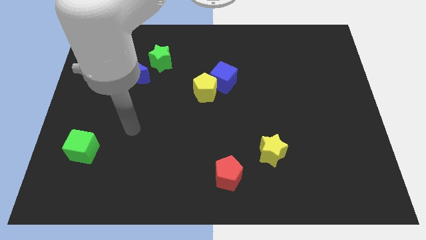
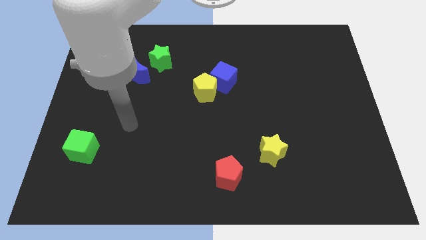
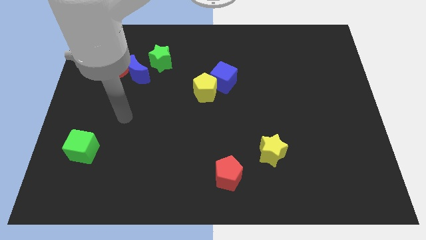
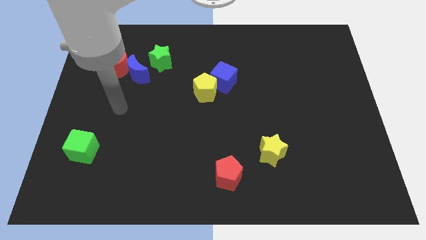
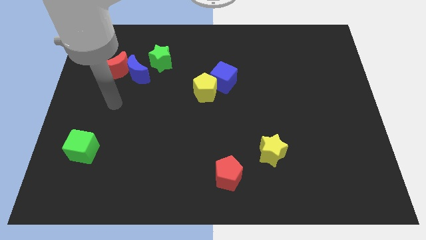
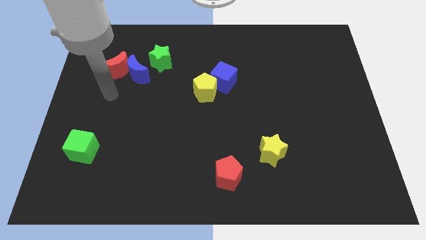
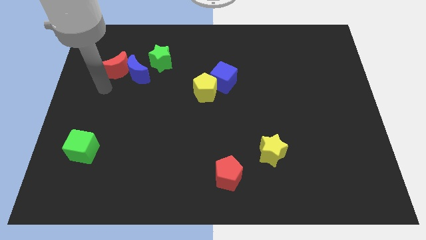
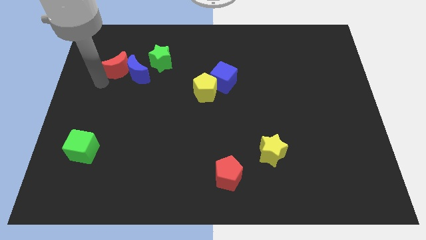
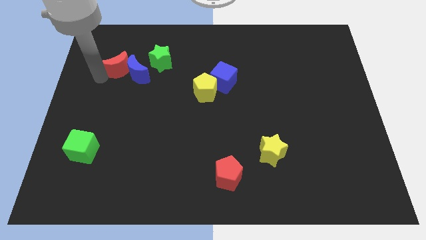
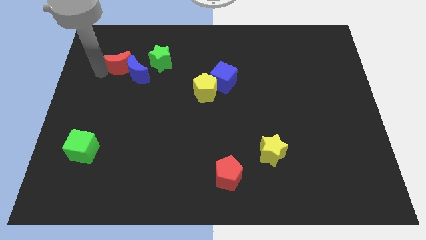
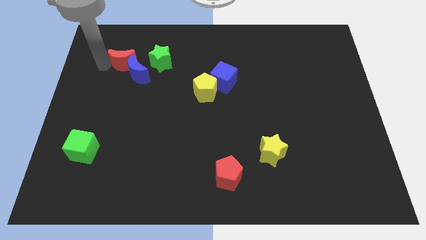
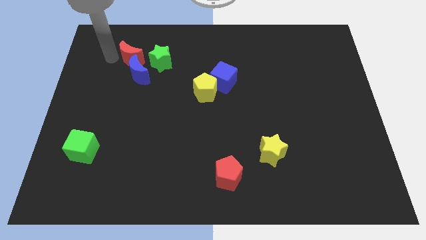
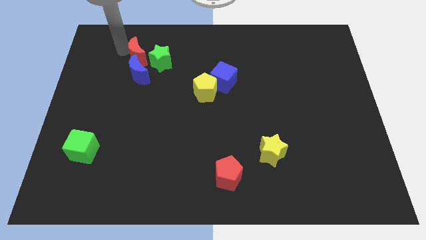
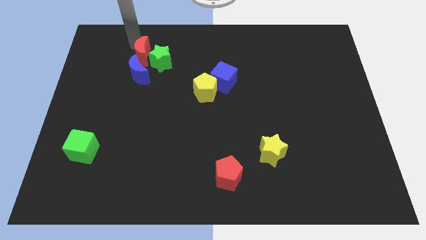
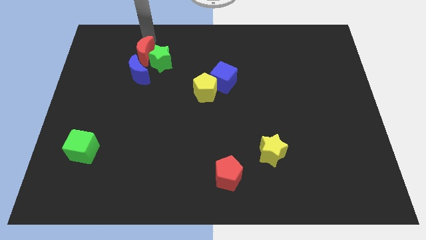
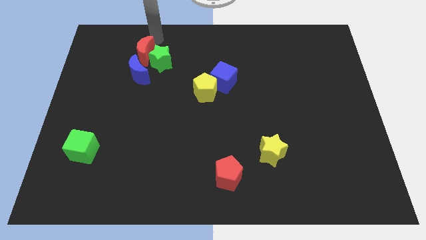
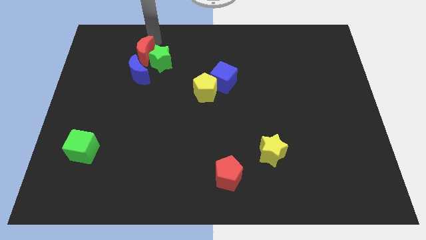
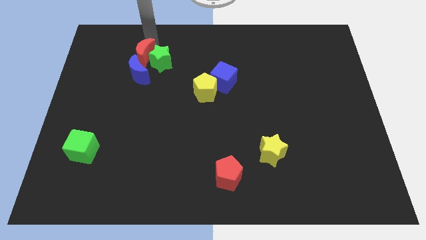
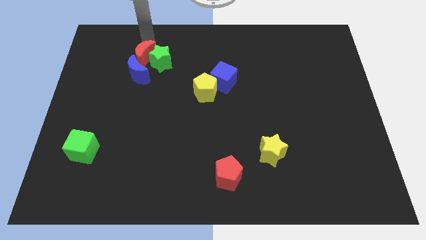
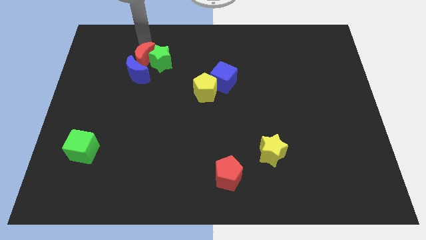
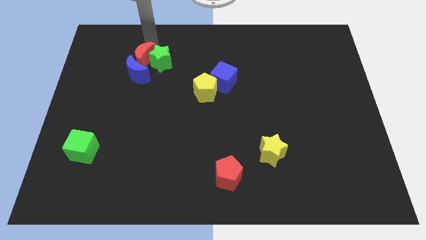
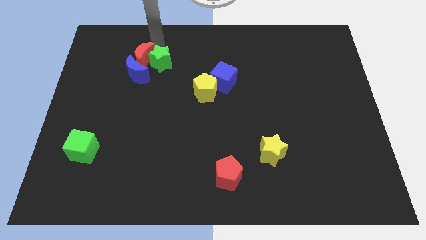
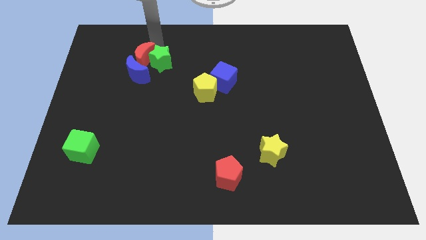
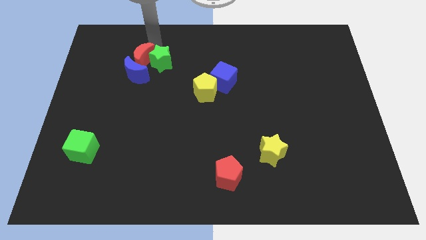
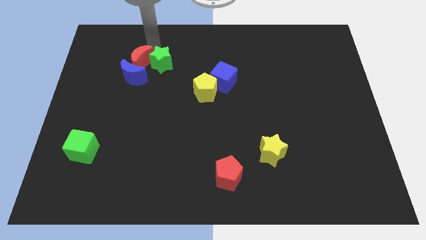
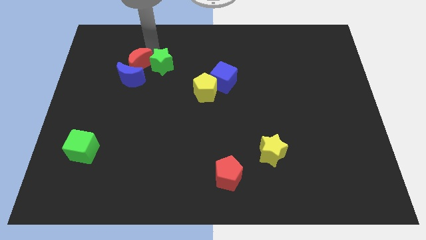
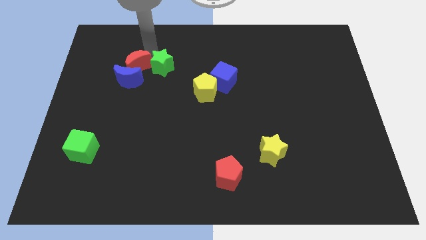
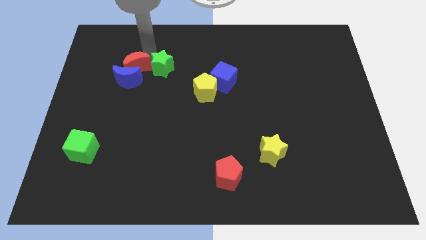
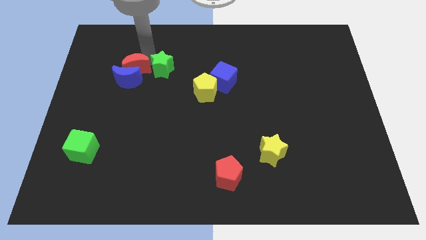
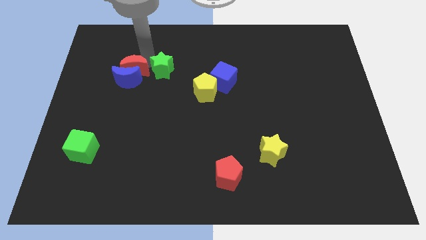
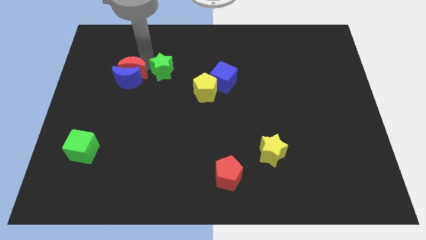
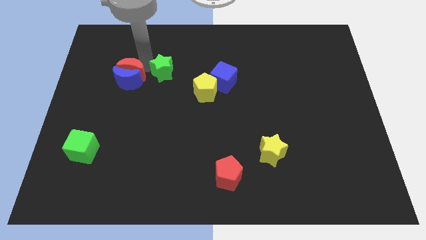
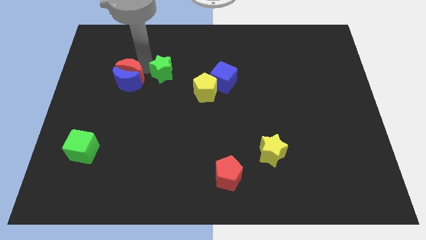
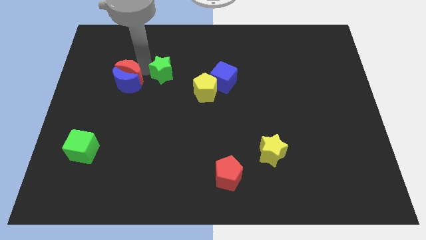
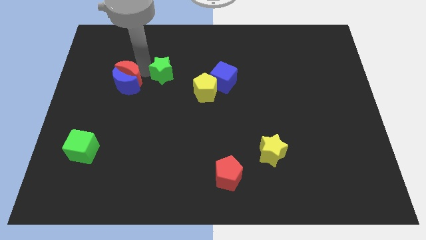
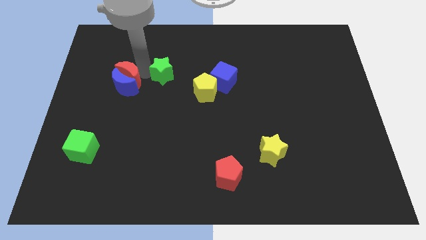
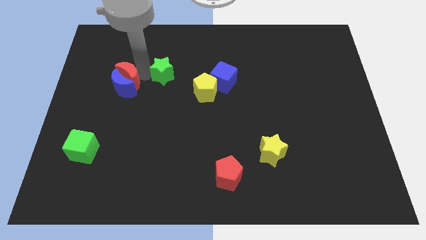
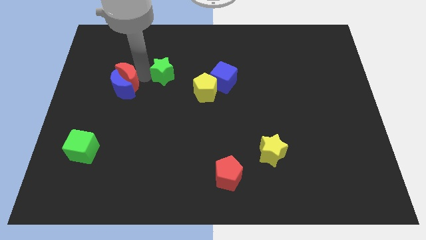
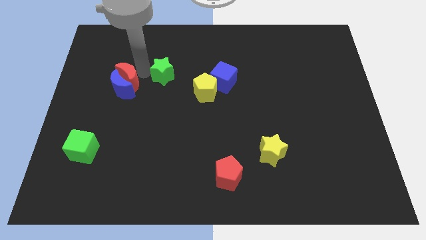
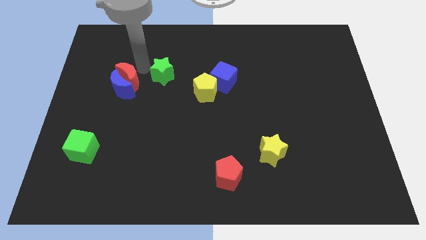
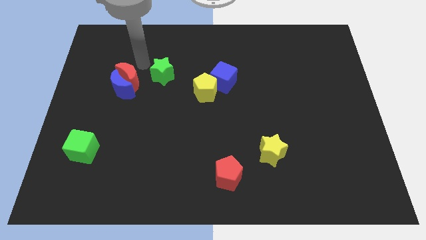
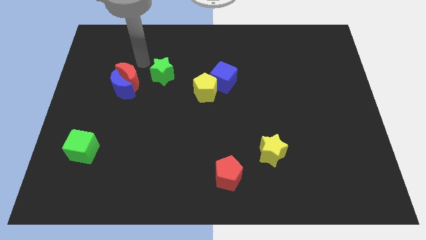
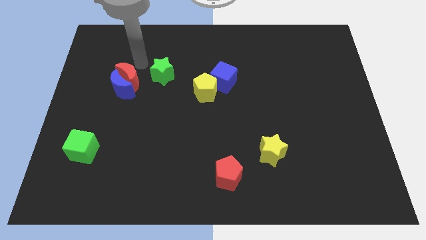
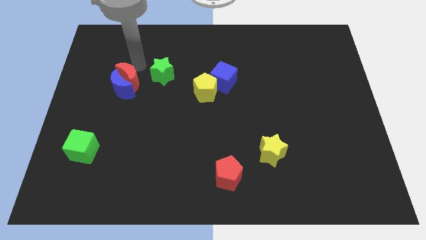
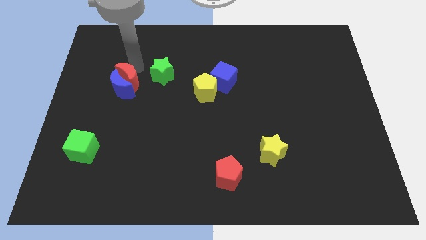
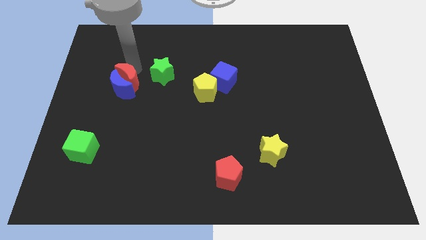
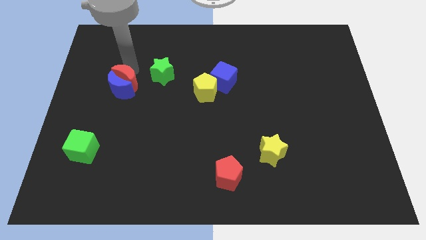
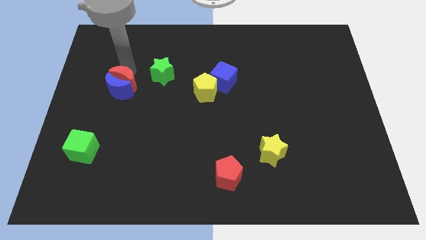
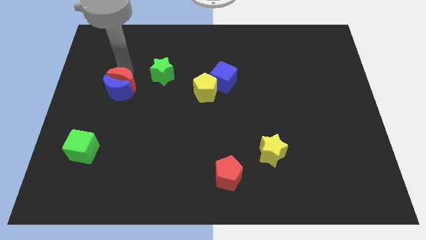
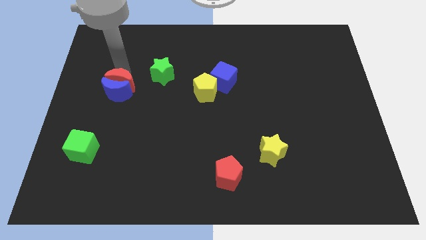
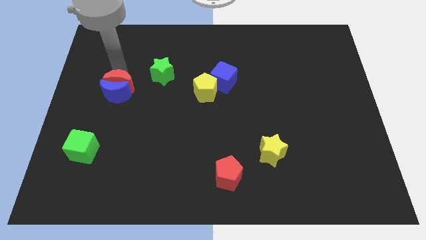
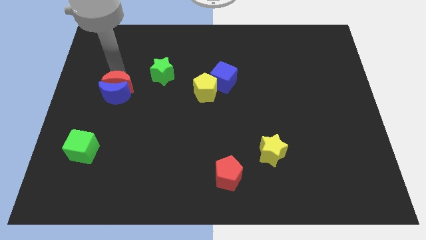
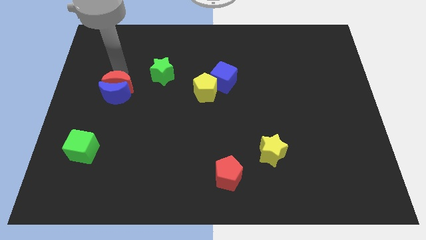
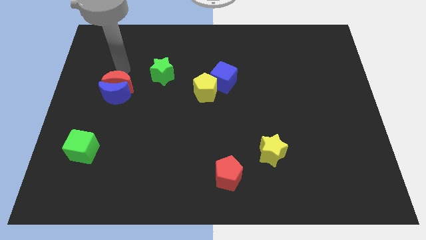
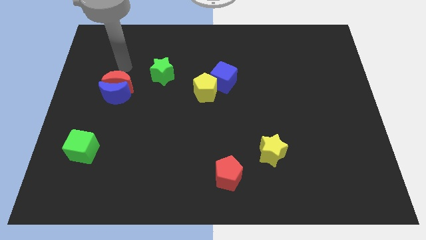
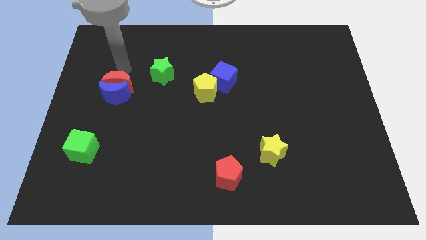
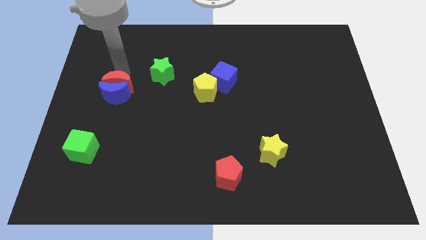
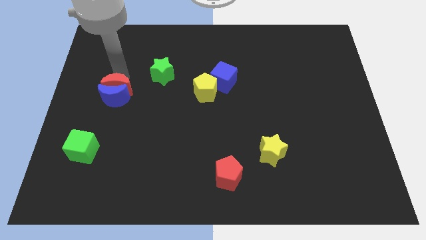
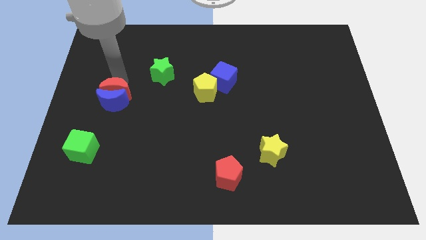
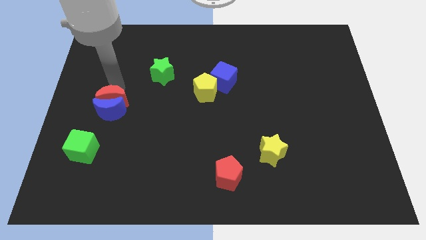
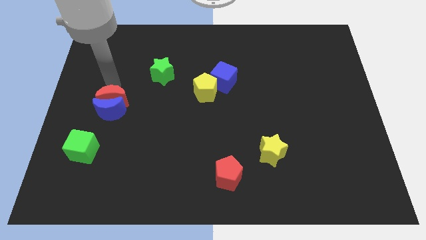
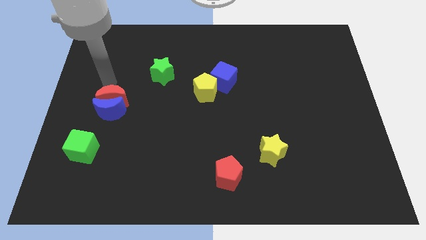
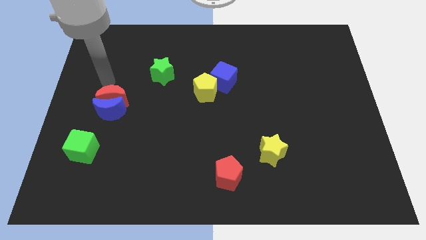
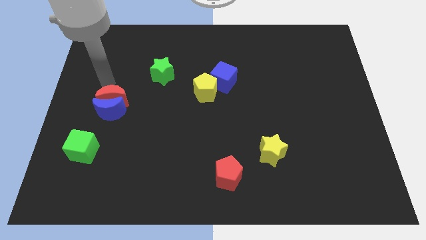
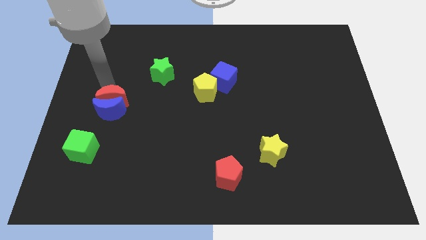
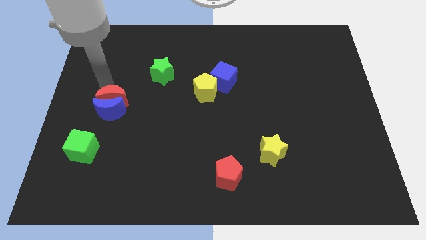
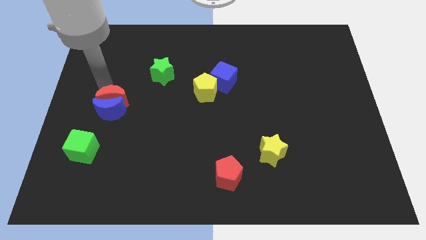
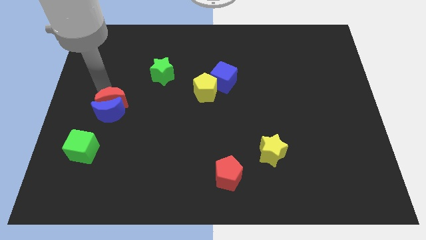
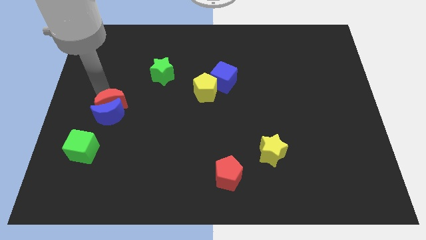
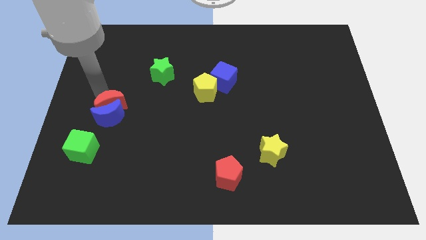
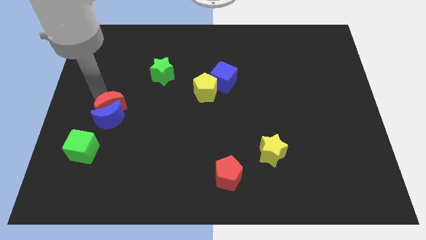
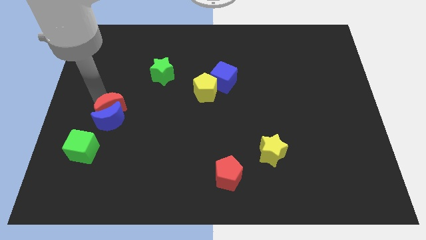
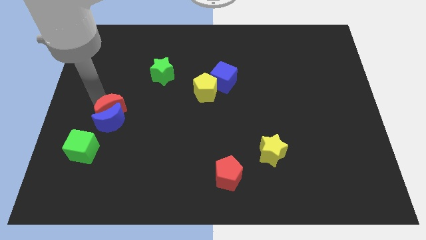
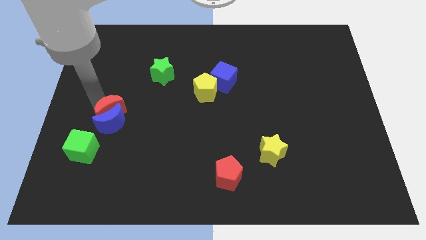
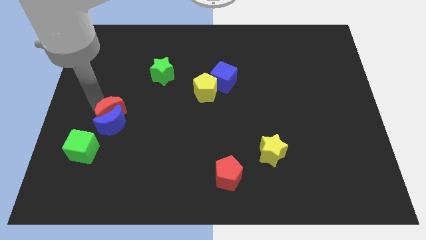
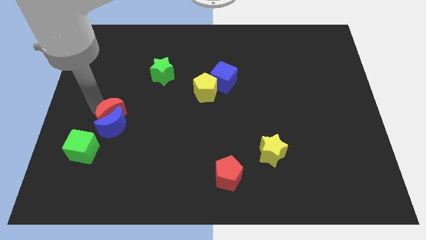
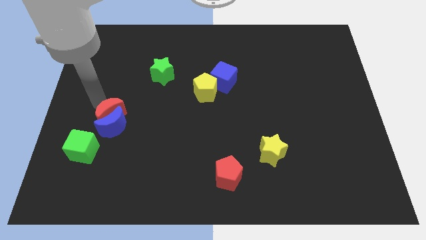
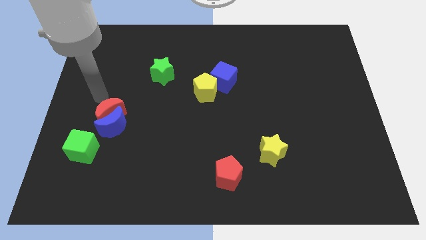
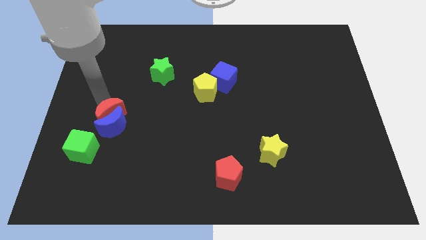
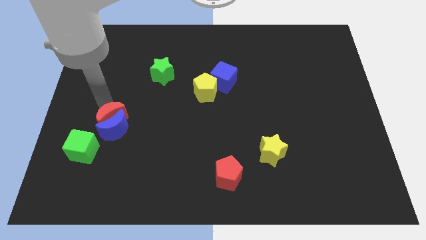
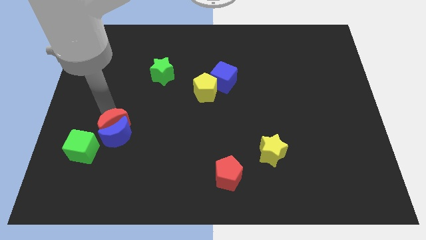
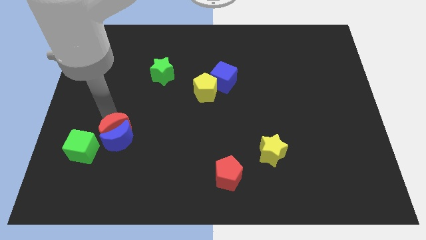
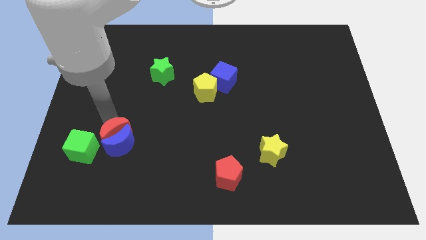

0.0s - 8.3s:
move the red moon right of the green cube
